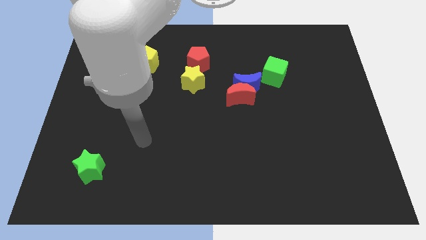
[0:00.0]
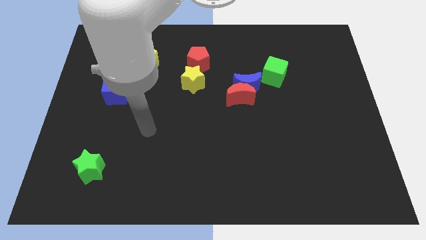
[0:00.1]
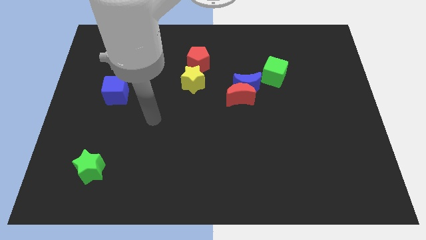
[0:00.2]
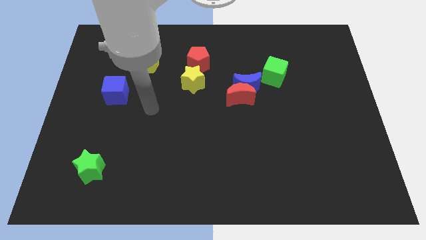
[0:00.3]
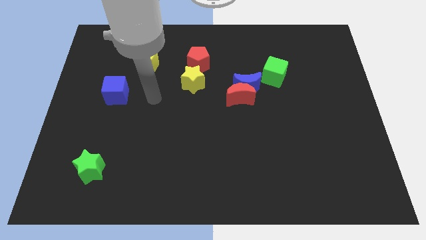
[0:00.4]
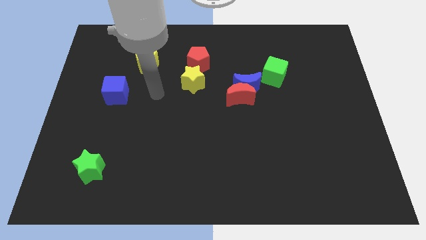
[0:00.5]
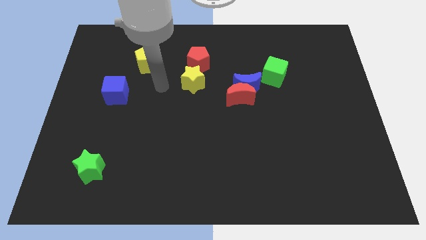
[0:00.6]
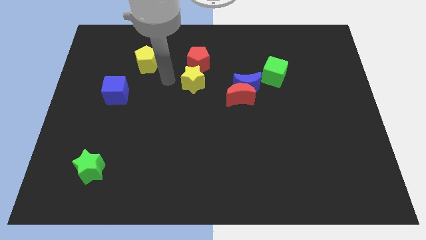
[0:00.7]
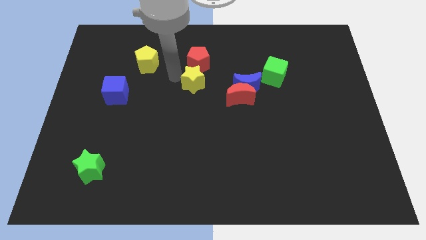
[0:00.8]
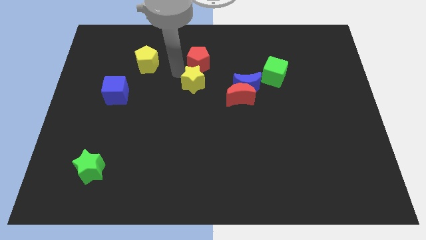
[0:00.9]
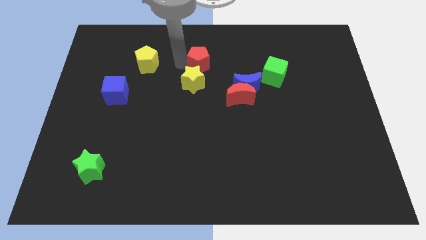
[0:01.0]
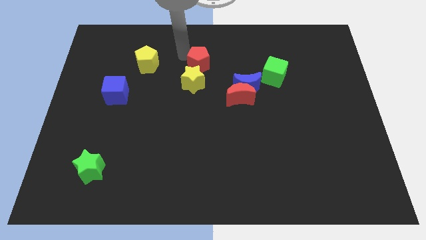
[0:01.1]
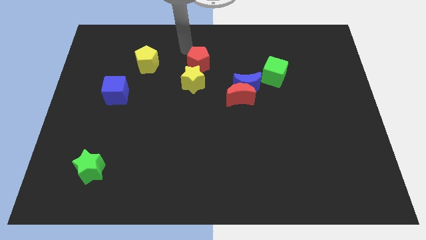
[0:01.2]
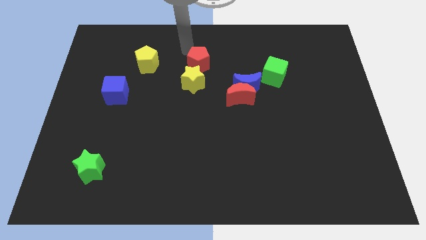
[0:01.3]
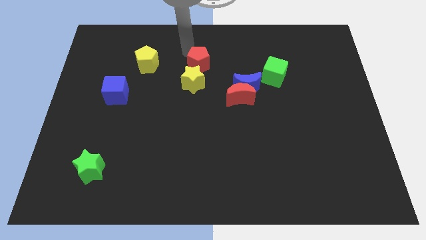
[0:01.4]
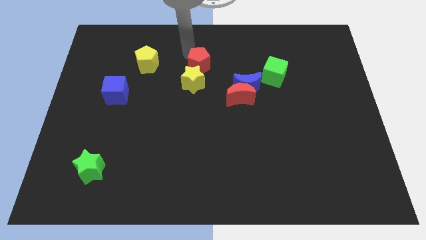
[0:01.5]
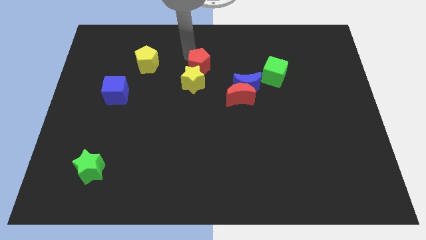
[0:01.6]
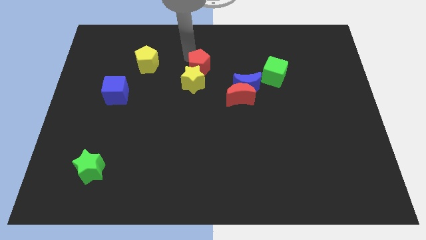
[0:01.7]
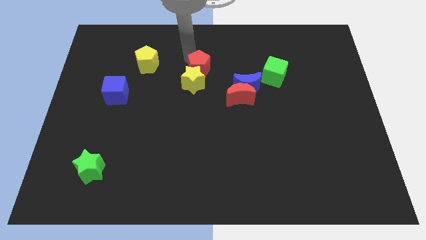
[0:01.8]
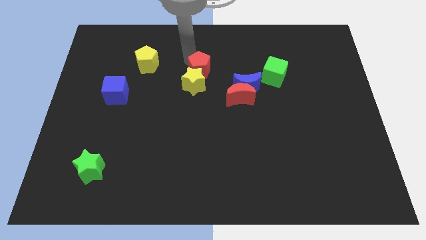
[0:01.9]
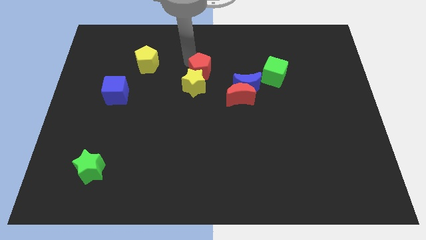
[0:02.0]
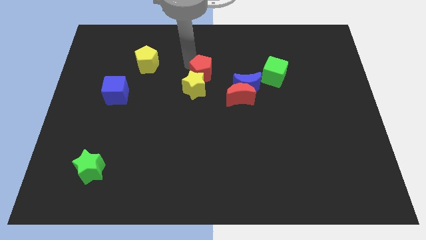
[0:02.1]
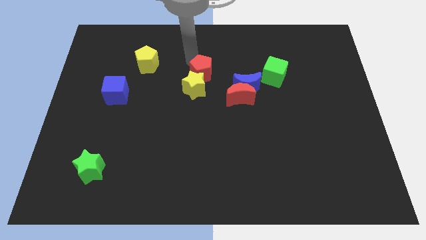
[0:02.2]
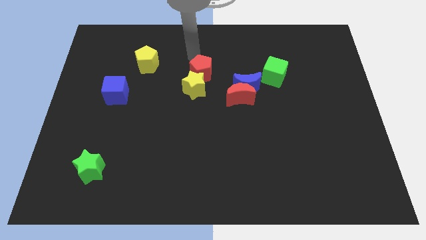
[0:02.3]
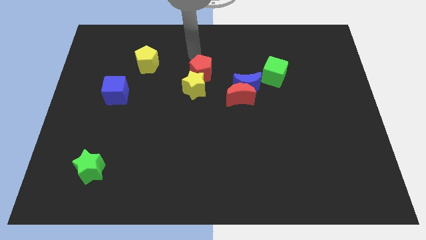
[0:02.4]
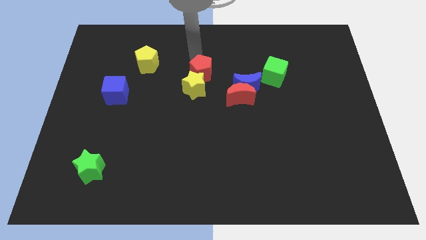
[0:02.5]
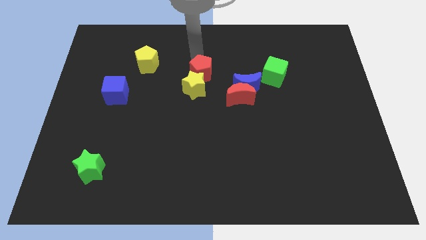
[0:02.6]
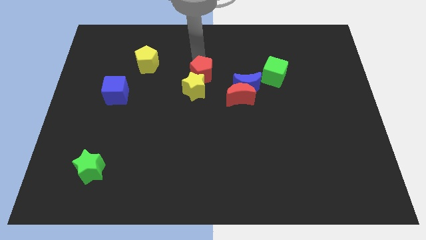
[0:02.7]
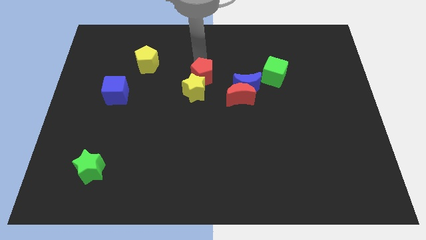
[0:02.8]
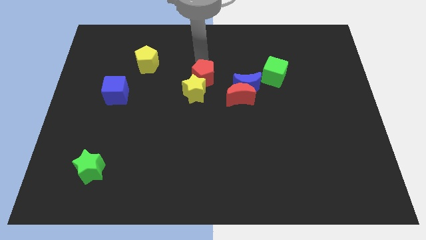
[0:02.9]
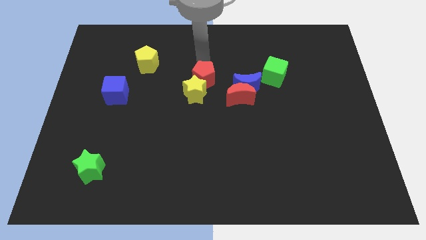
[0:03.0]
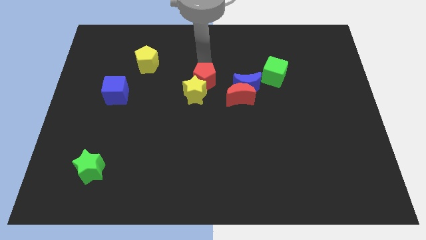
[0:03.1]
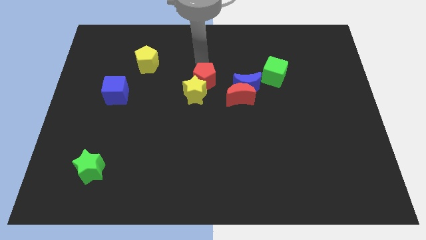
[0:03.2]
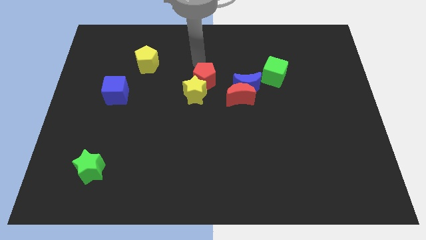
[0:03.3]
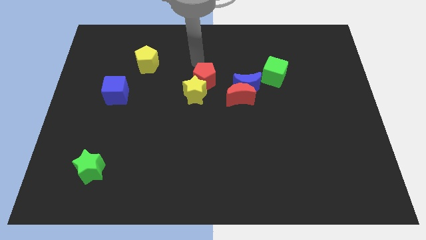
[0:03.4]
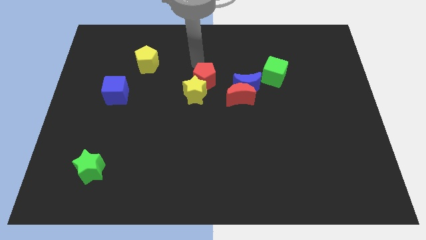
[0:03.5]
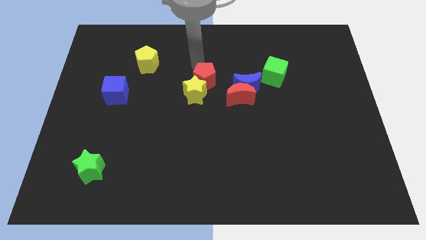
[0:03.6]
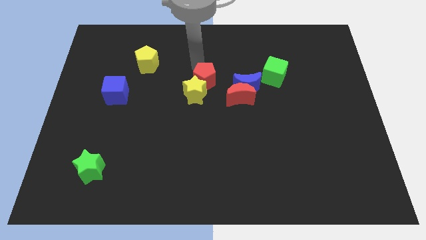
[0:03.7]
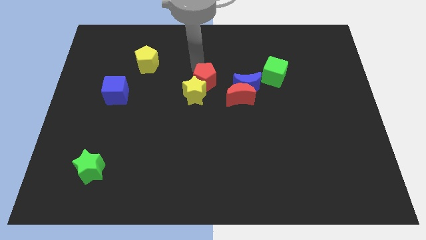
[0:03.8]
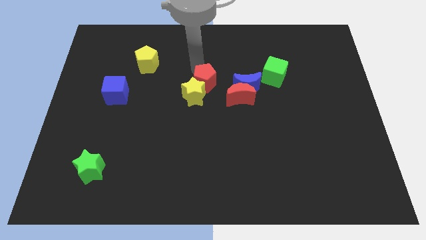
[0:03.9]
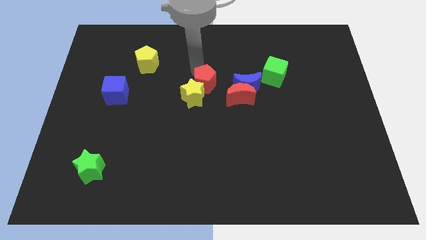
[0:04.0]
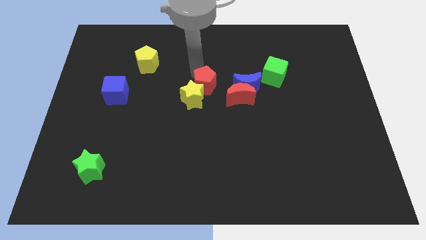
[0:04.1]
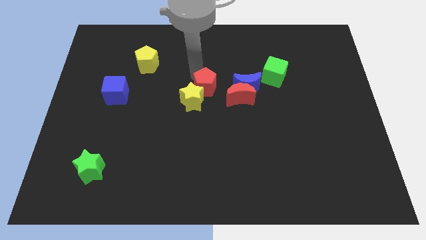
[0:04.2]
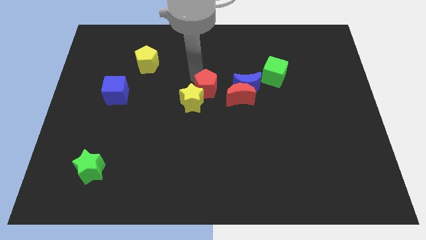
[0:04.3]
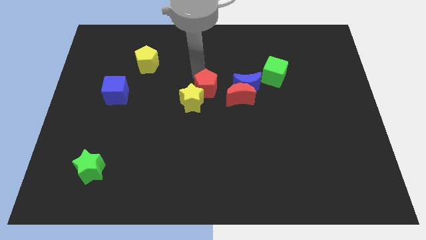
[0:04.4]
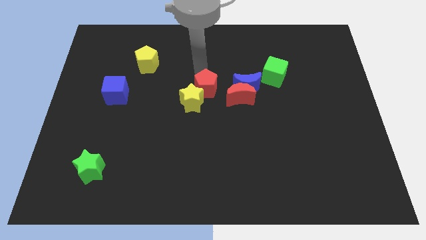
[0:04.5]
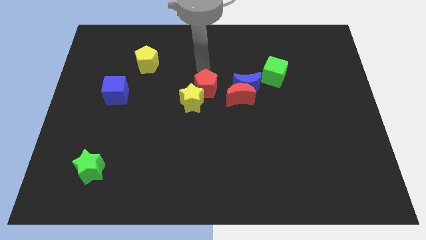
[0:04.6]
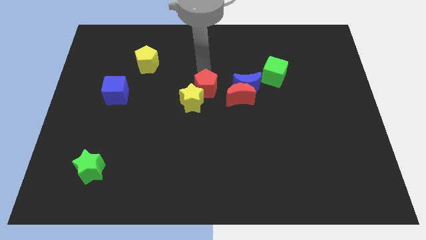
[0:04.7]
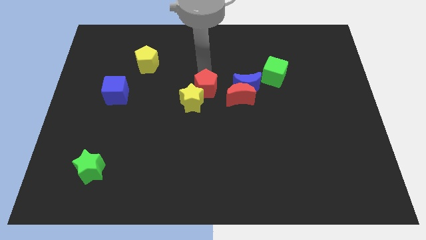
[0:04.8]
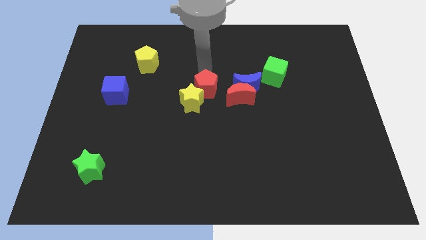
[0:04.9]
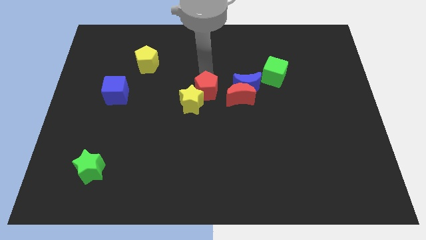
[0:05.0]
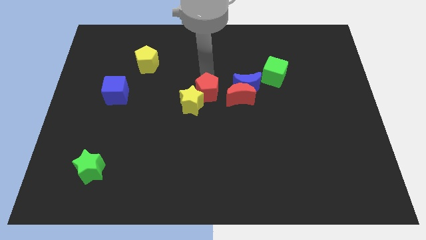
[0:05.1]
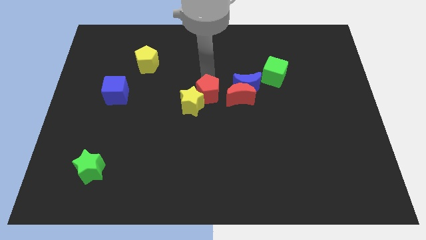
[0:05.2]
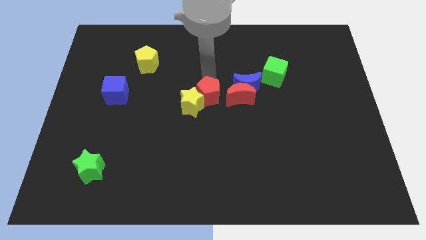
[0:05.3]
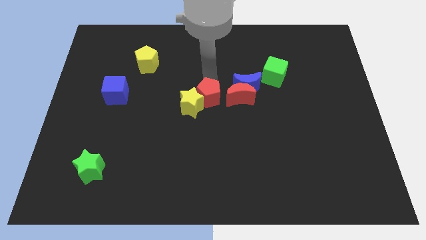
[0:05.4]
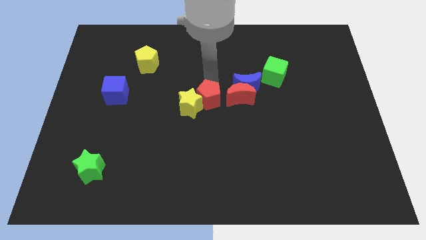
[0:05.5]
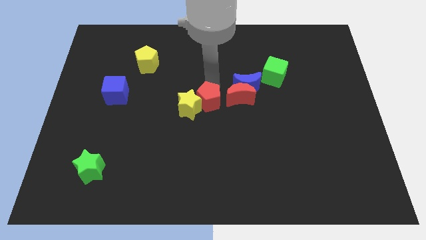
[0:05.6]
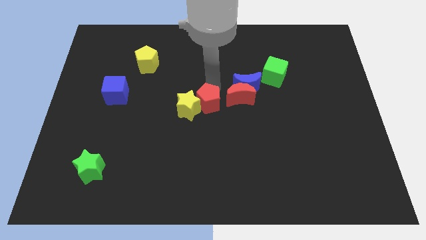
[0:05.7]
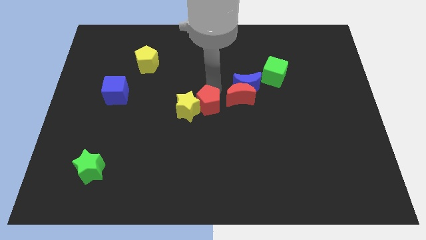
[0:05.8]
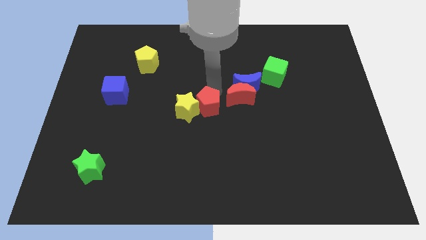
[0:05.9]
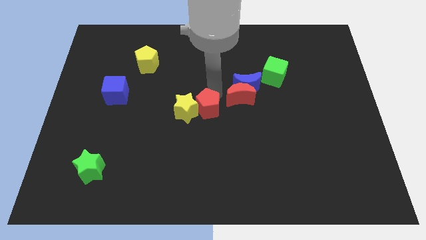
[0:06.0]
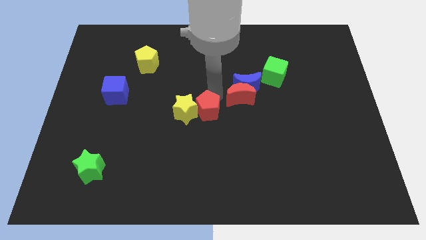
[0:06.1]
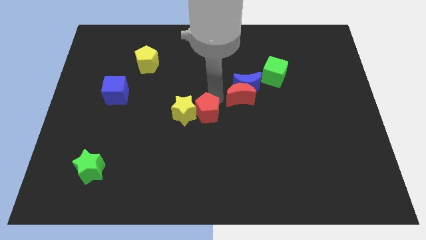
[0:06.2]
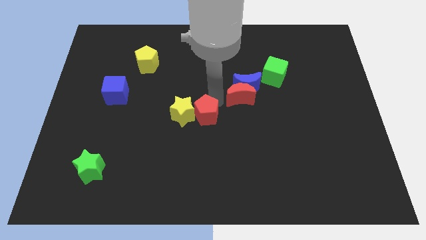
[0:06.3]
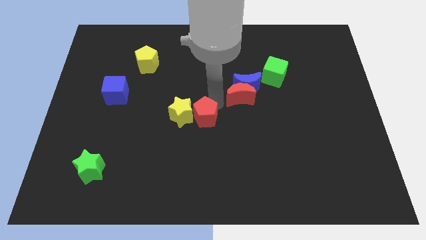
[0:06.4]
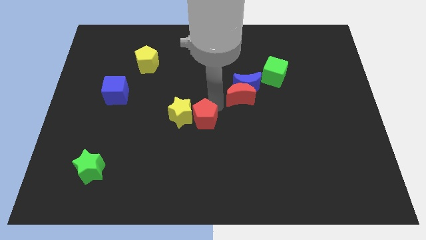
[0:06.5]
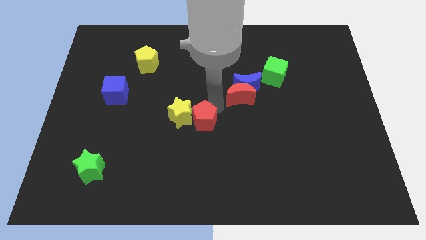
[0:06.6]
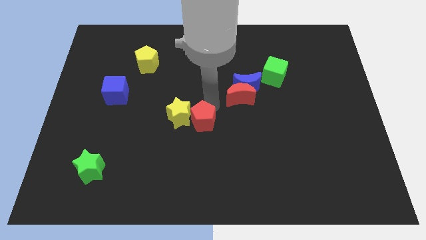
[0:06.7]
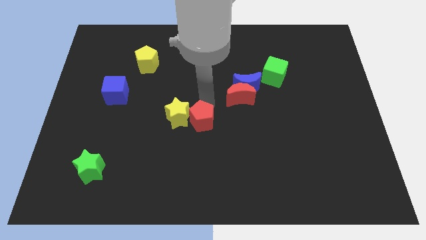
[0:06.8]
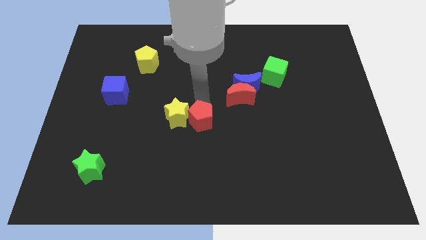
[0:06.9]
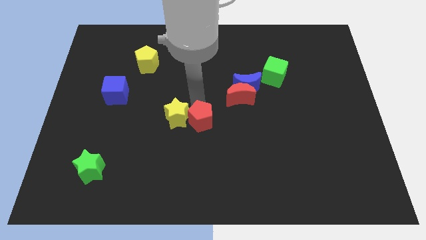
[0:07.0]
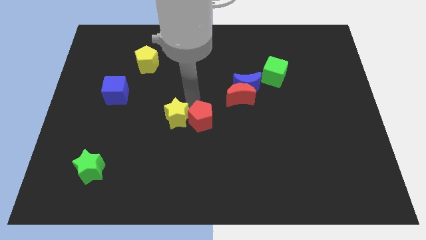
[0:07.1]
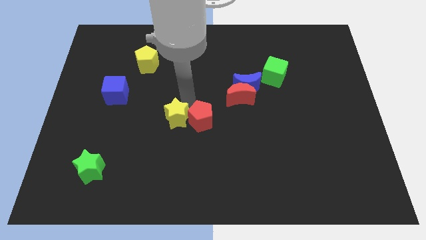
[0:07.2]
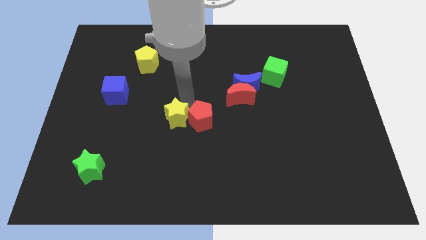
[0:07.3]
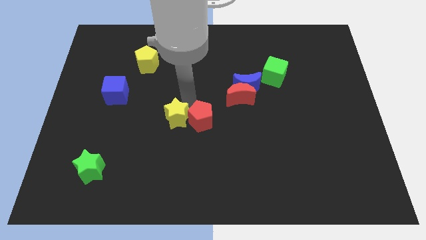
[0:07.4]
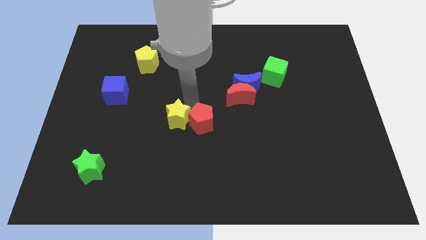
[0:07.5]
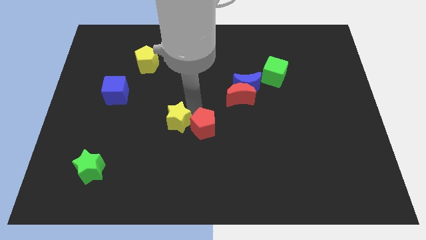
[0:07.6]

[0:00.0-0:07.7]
slide the red pentagon downwards

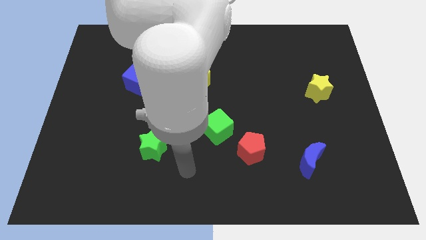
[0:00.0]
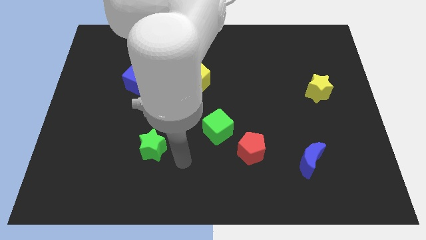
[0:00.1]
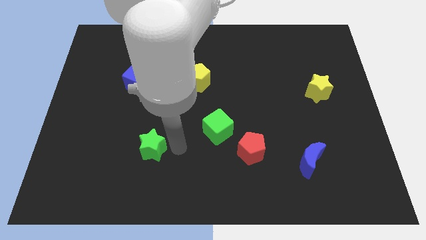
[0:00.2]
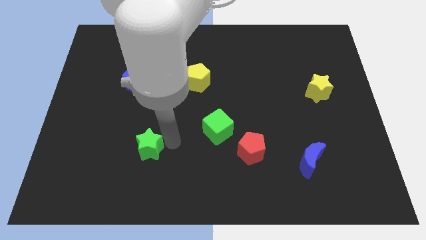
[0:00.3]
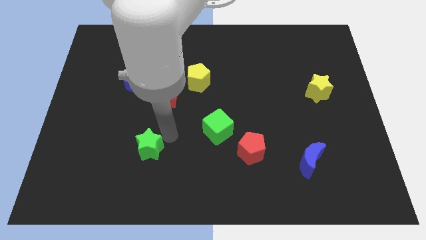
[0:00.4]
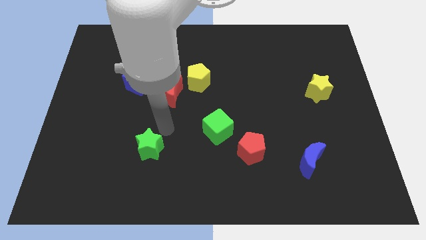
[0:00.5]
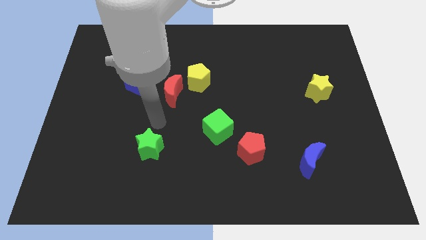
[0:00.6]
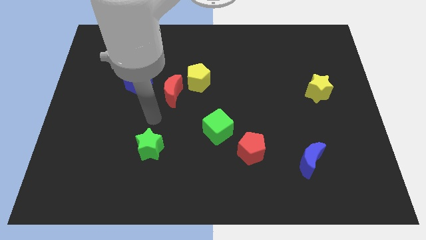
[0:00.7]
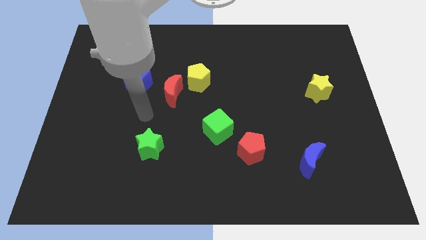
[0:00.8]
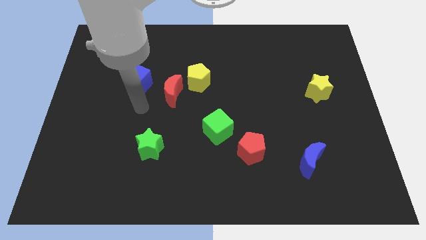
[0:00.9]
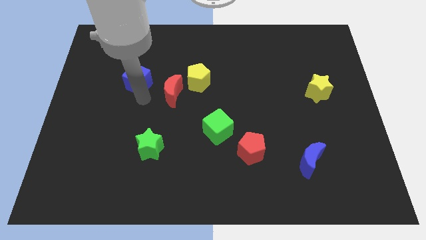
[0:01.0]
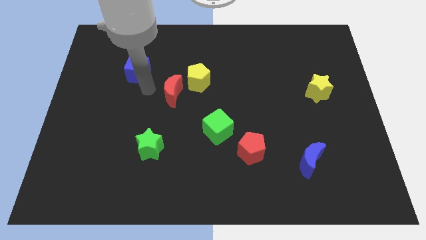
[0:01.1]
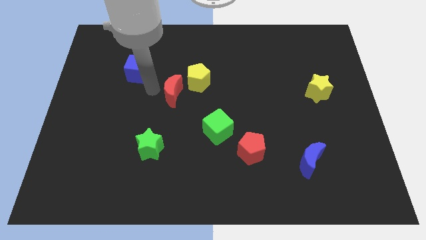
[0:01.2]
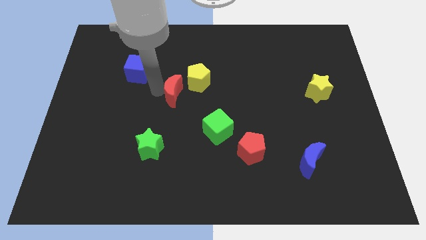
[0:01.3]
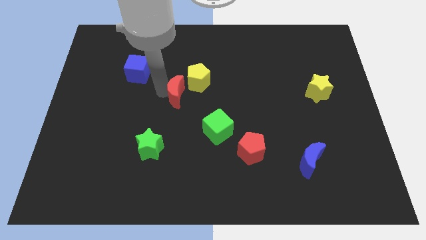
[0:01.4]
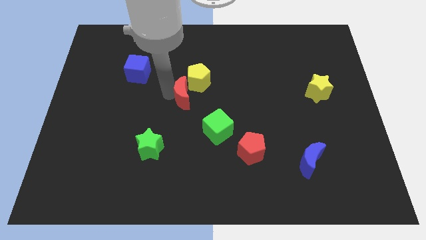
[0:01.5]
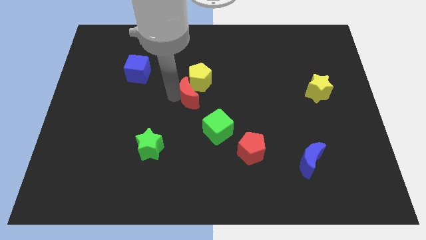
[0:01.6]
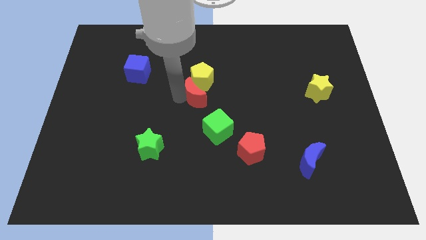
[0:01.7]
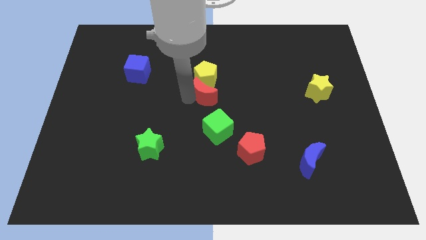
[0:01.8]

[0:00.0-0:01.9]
move the red moon to the right somewhat
